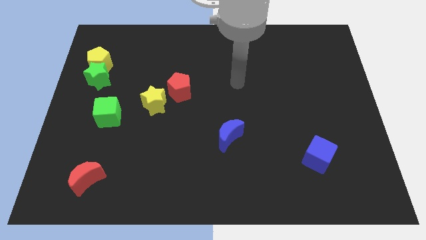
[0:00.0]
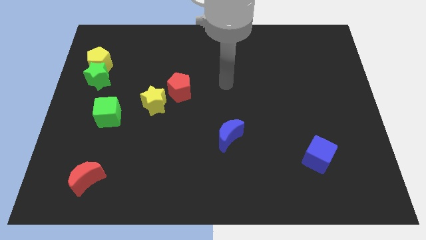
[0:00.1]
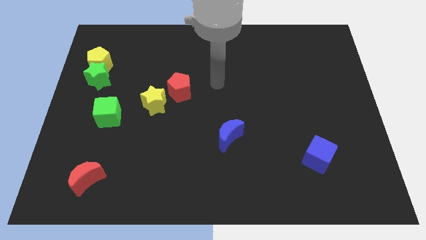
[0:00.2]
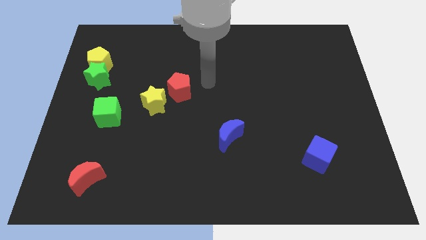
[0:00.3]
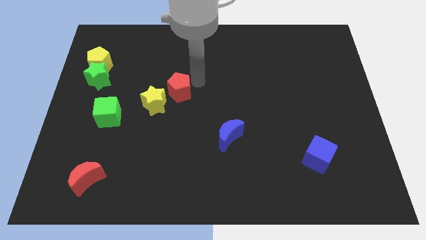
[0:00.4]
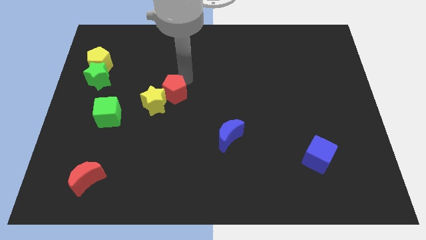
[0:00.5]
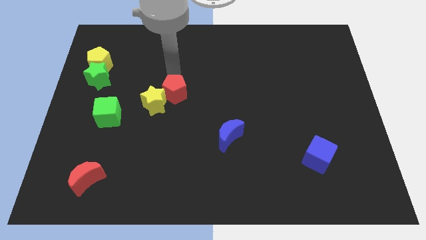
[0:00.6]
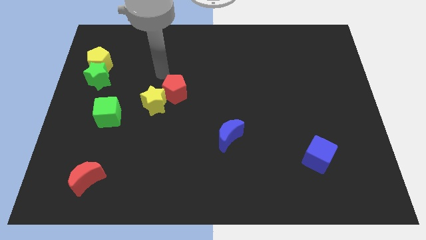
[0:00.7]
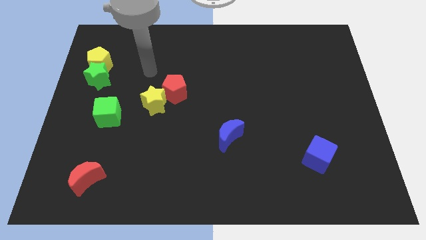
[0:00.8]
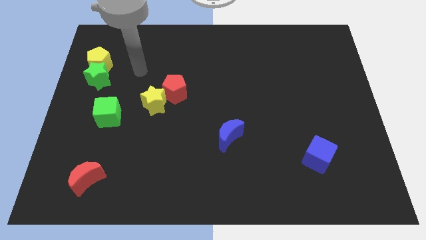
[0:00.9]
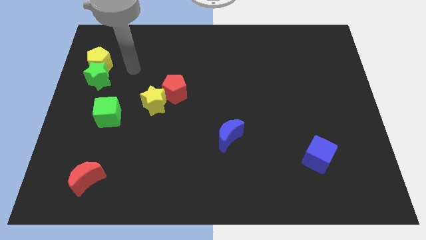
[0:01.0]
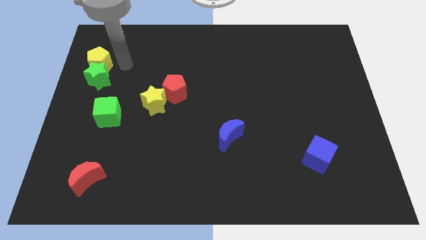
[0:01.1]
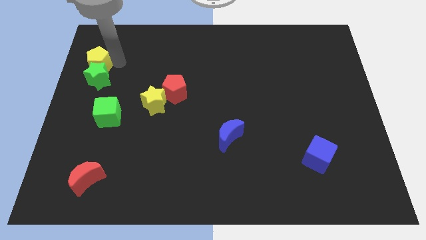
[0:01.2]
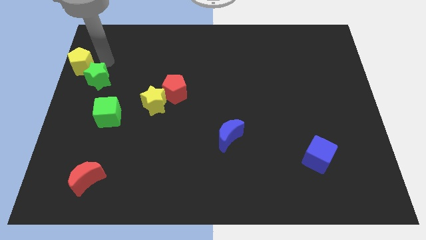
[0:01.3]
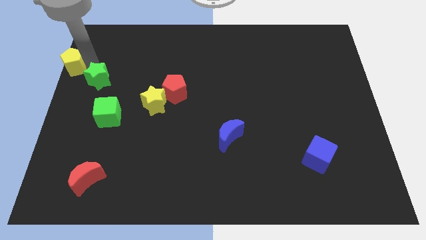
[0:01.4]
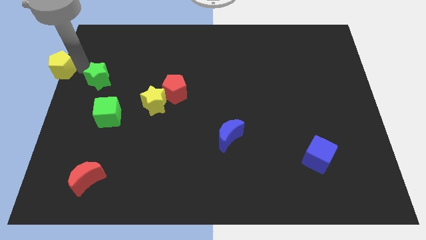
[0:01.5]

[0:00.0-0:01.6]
pull the green star apart from the yellow pentagon

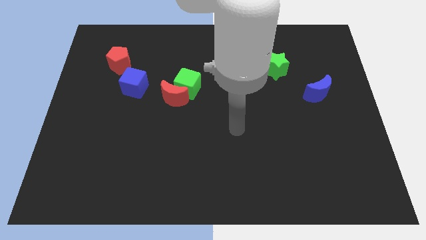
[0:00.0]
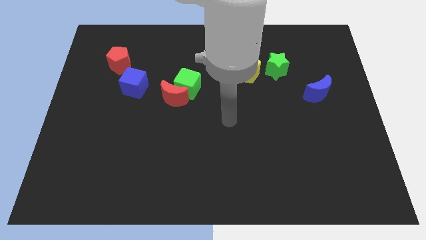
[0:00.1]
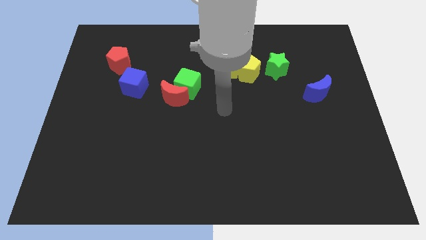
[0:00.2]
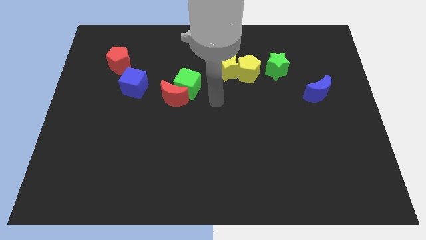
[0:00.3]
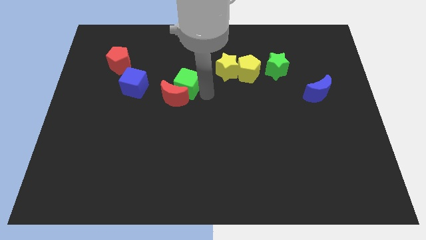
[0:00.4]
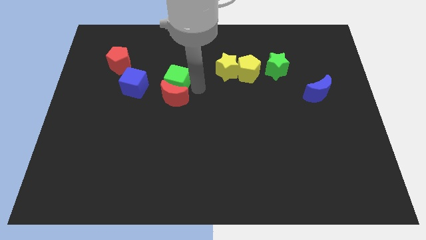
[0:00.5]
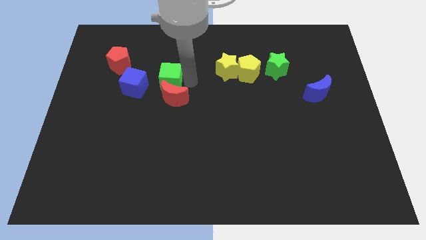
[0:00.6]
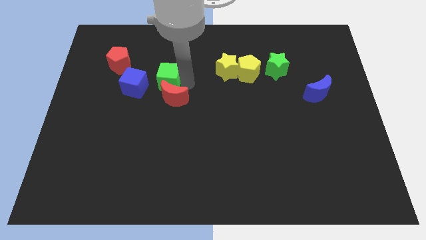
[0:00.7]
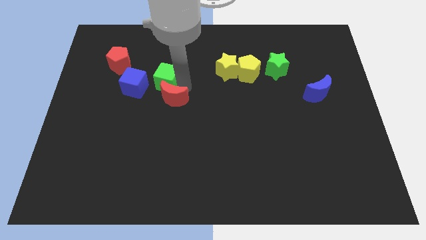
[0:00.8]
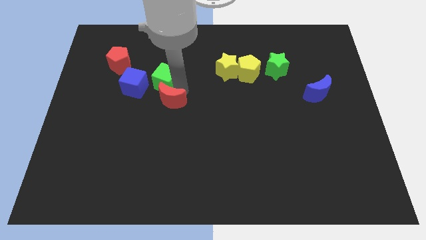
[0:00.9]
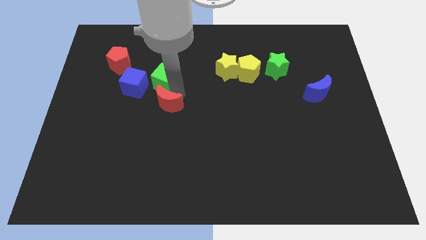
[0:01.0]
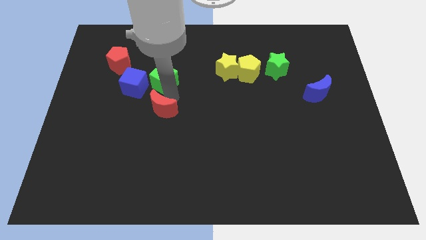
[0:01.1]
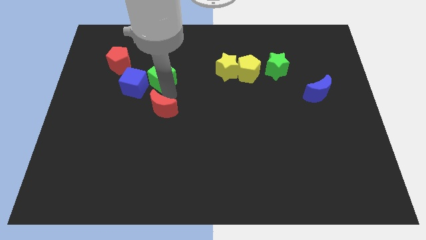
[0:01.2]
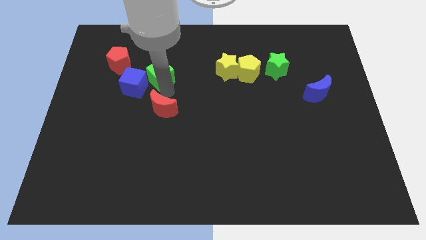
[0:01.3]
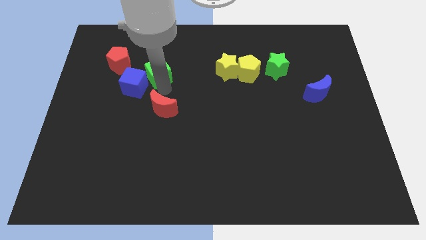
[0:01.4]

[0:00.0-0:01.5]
pull the red moon apart from the green cube

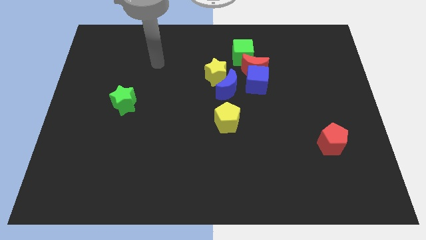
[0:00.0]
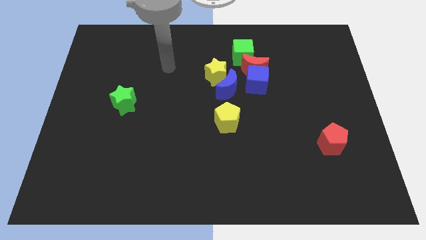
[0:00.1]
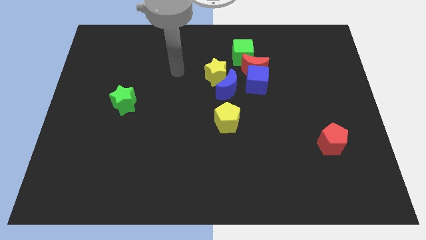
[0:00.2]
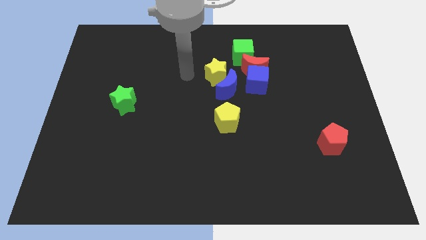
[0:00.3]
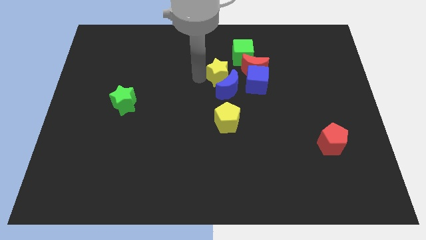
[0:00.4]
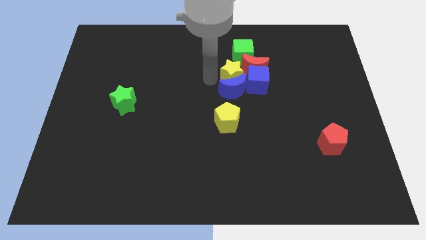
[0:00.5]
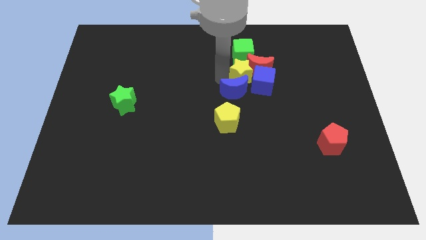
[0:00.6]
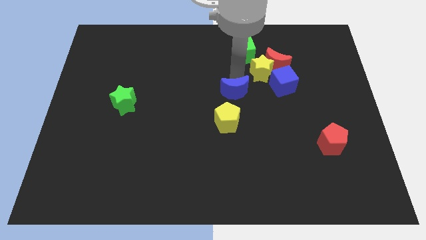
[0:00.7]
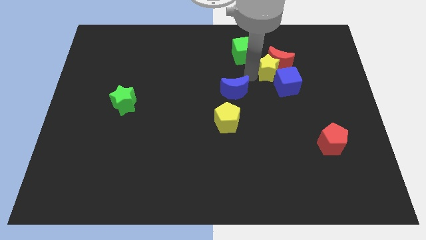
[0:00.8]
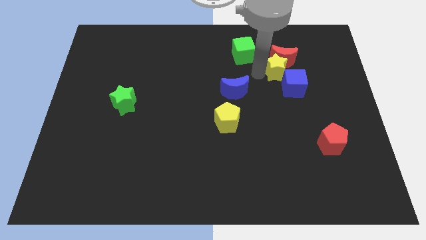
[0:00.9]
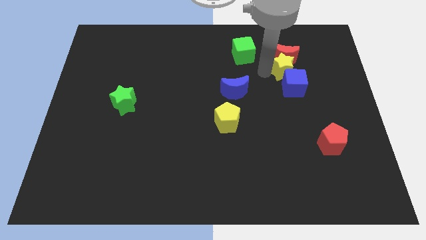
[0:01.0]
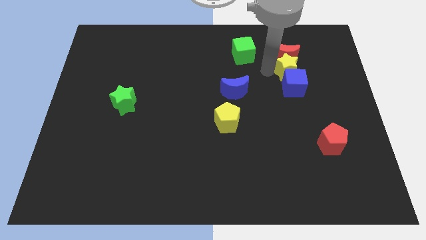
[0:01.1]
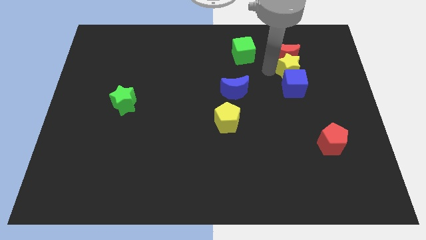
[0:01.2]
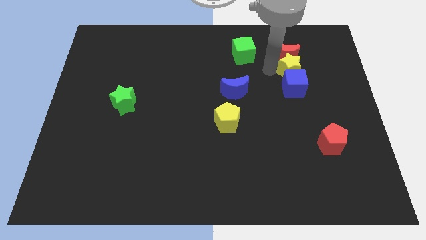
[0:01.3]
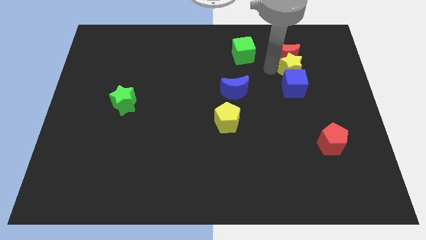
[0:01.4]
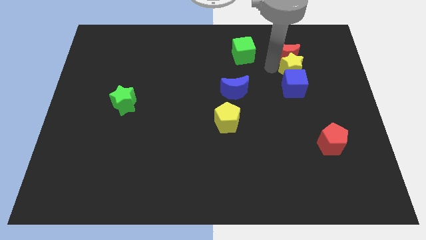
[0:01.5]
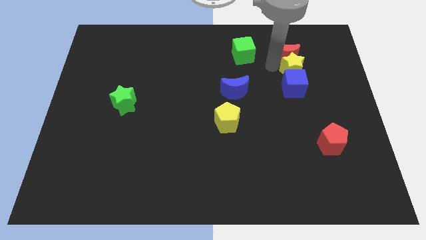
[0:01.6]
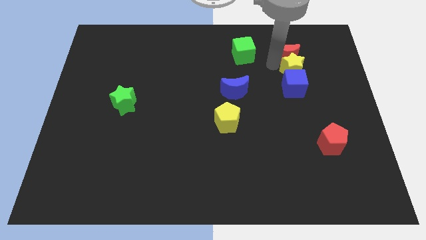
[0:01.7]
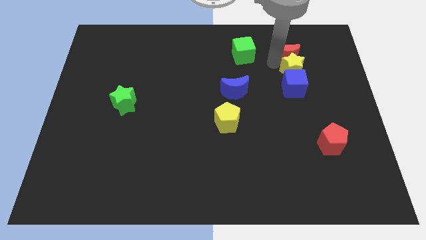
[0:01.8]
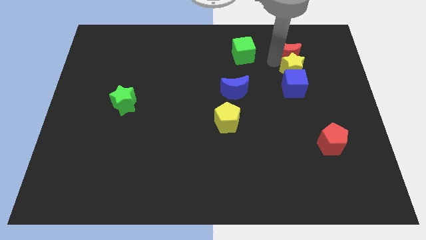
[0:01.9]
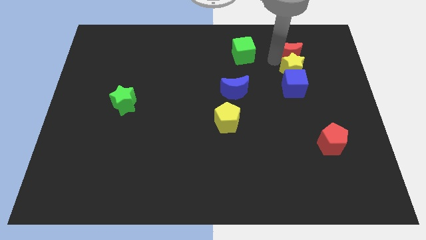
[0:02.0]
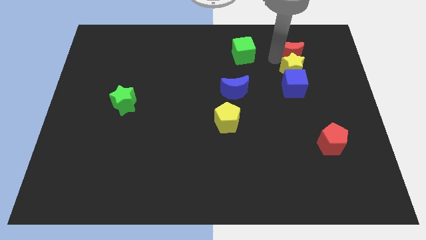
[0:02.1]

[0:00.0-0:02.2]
pull the red moon apart from the group of blocks

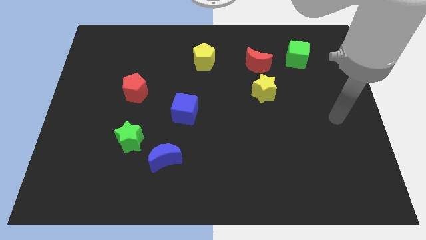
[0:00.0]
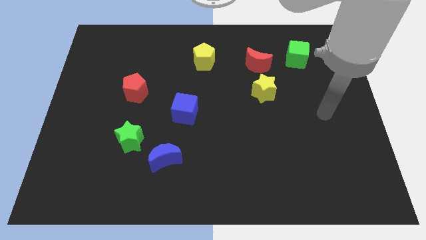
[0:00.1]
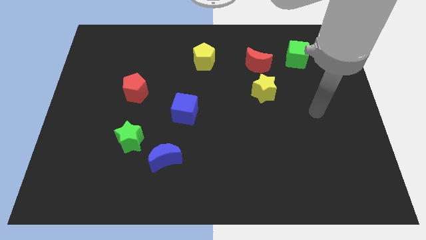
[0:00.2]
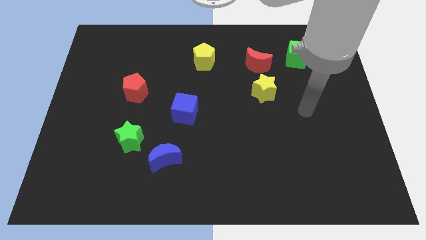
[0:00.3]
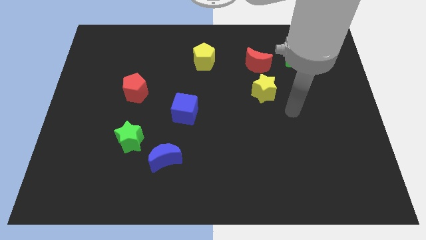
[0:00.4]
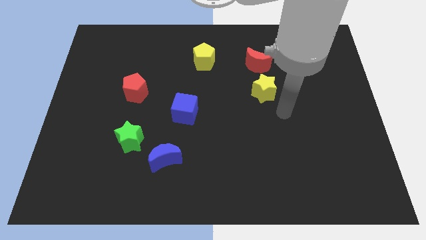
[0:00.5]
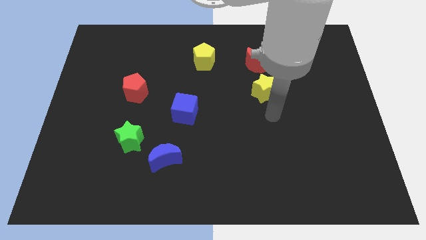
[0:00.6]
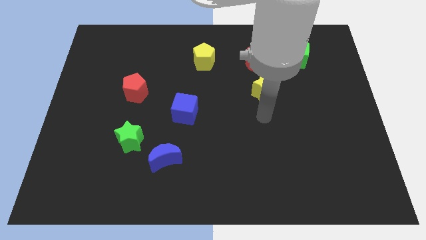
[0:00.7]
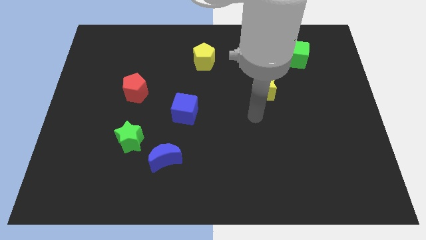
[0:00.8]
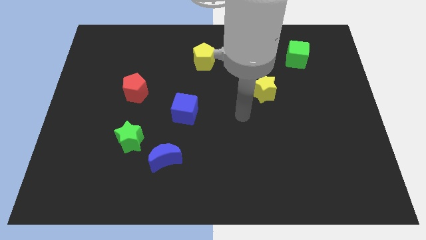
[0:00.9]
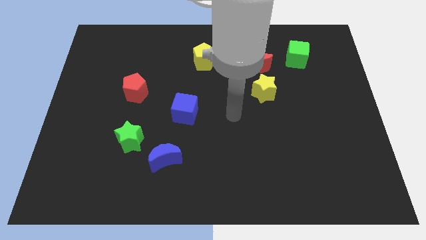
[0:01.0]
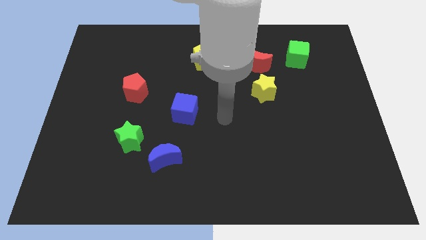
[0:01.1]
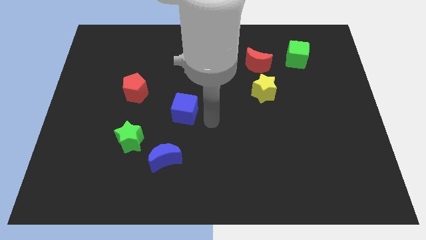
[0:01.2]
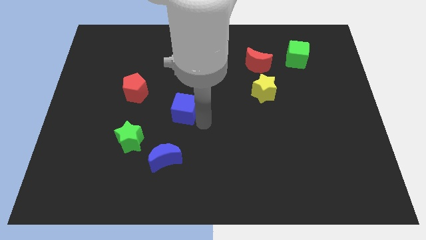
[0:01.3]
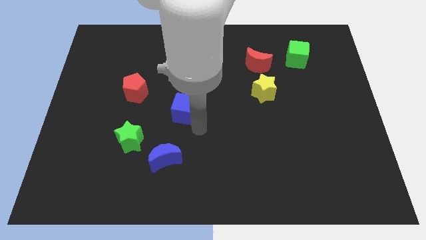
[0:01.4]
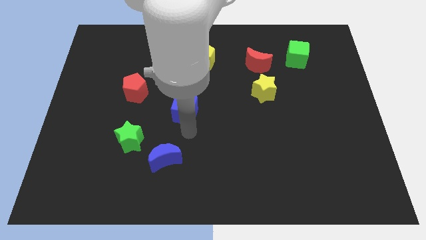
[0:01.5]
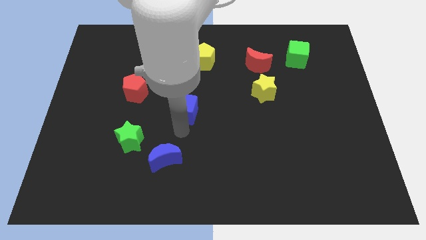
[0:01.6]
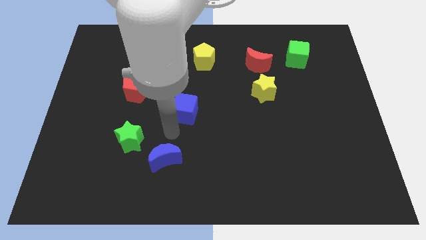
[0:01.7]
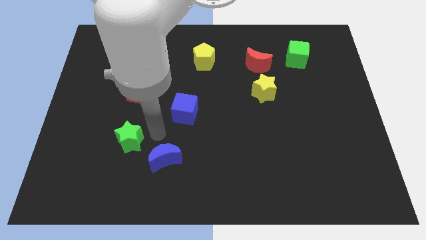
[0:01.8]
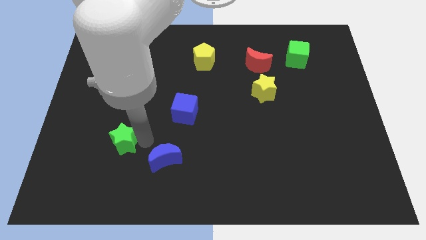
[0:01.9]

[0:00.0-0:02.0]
move the blue moon away from the green star

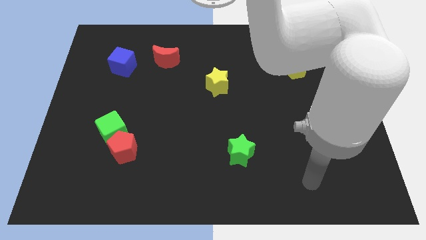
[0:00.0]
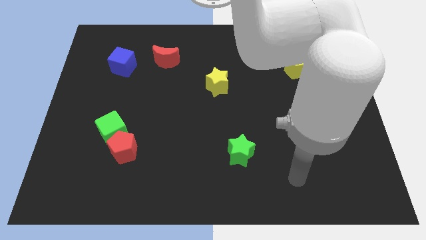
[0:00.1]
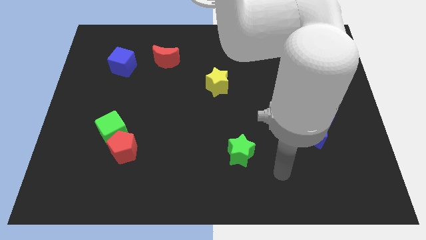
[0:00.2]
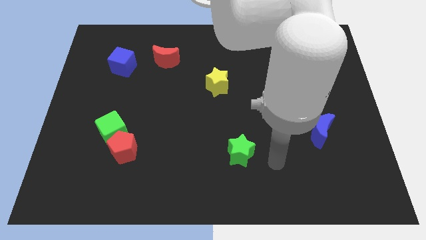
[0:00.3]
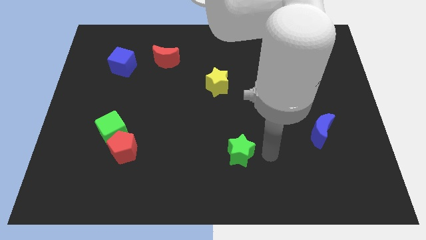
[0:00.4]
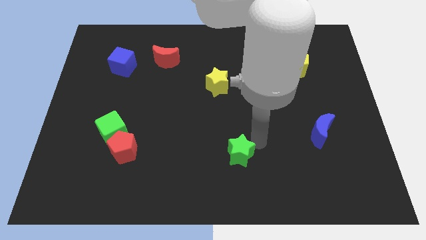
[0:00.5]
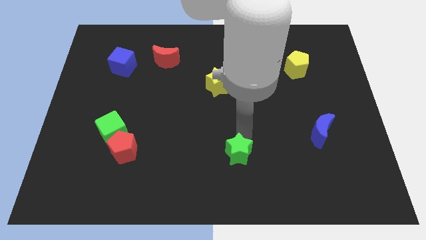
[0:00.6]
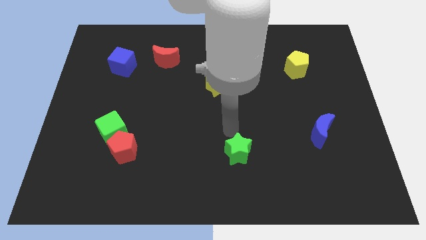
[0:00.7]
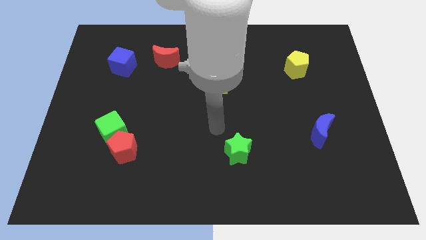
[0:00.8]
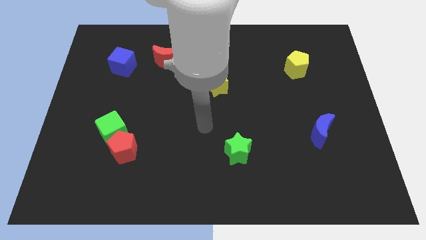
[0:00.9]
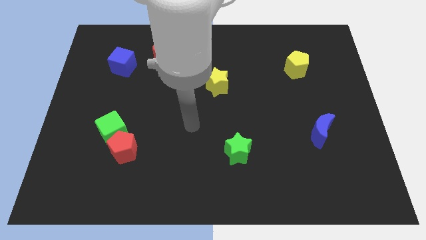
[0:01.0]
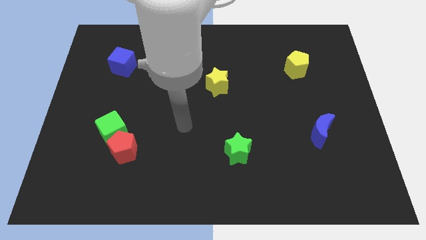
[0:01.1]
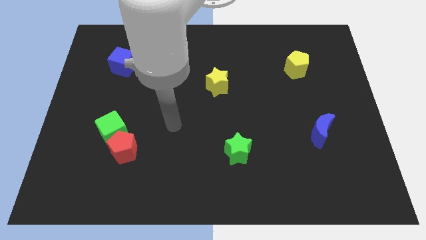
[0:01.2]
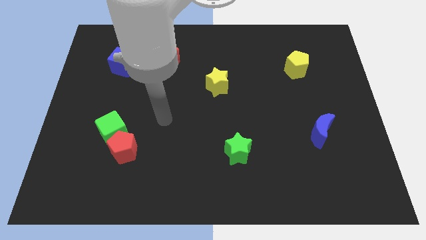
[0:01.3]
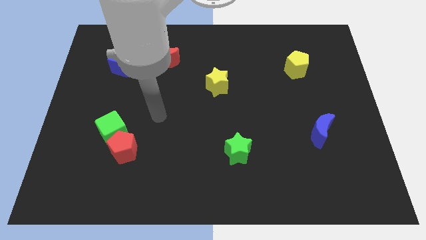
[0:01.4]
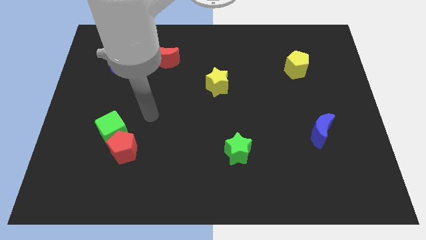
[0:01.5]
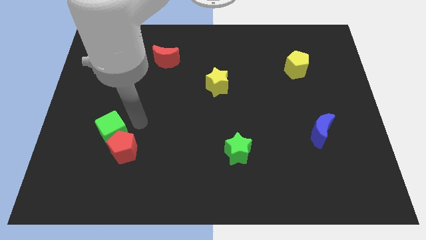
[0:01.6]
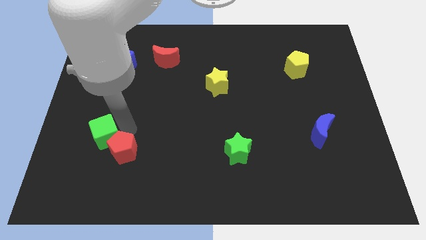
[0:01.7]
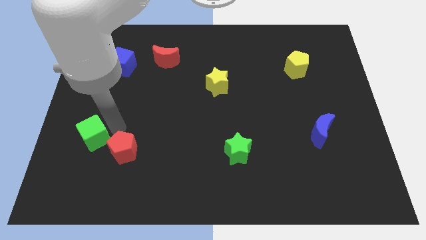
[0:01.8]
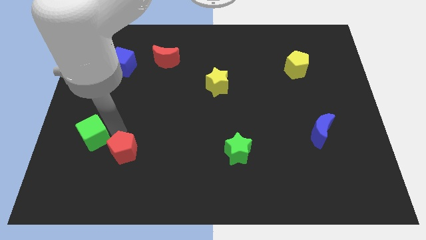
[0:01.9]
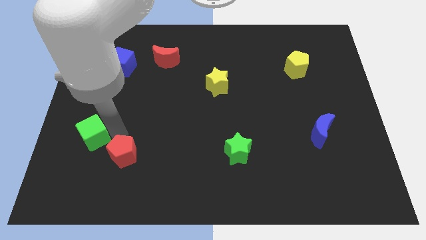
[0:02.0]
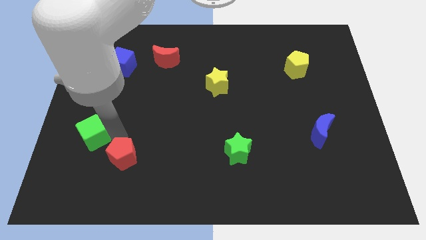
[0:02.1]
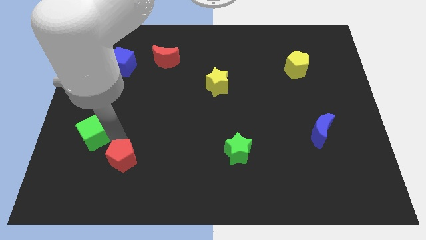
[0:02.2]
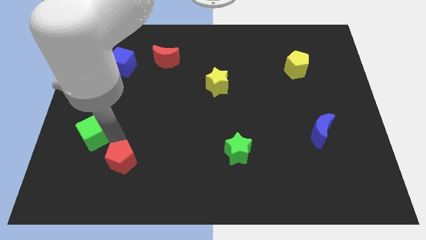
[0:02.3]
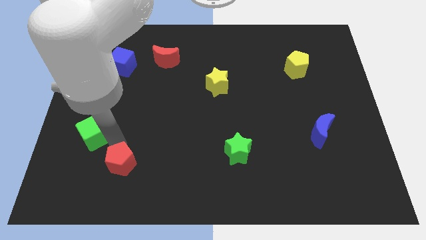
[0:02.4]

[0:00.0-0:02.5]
pull the red pentagon apart from the green cube
